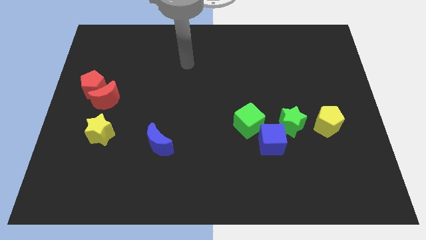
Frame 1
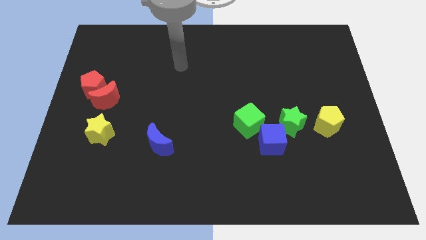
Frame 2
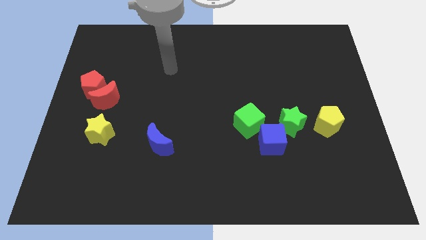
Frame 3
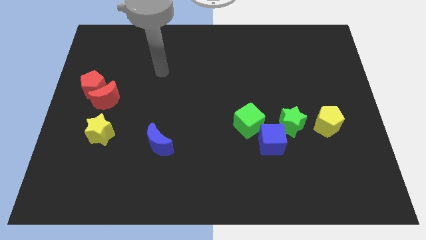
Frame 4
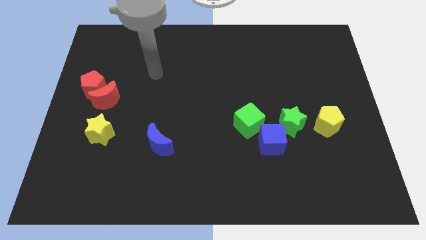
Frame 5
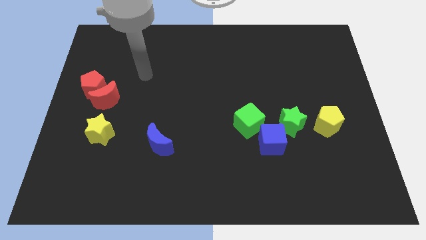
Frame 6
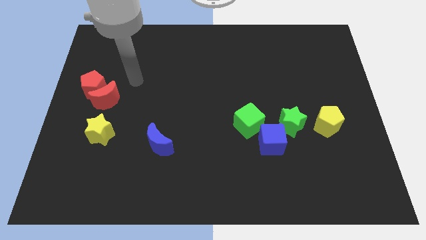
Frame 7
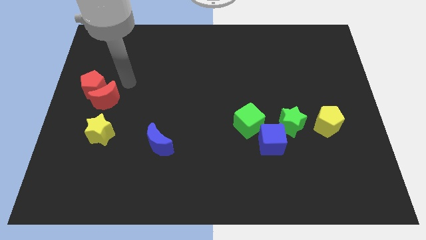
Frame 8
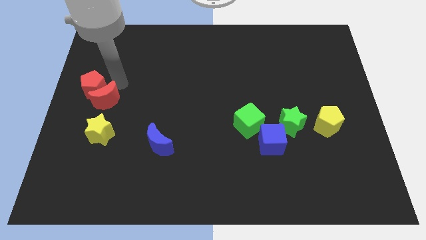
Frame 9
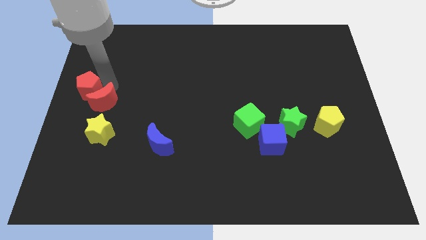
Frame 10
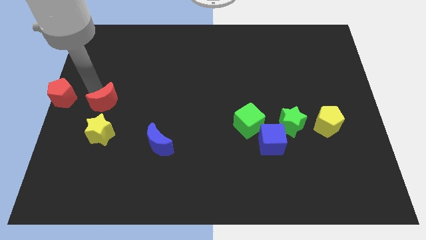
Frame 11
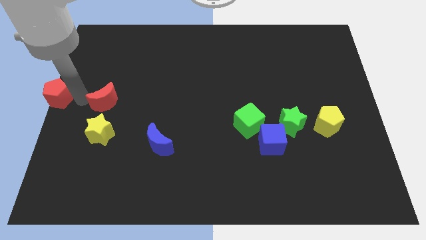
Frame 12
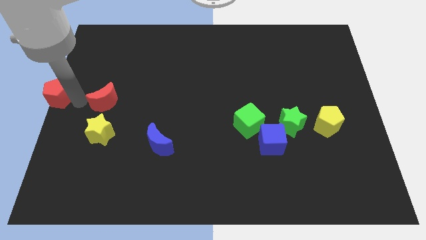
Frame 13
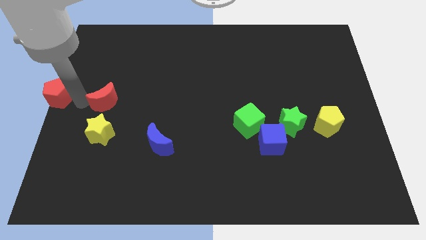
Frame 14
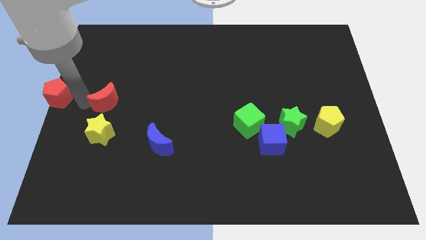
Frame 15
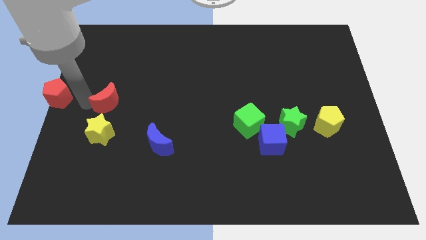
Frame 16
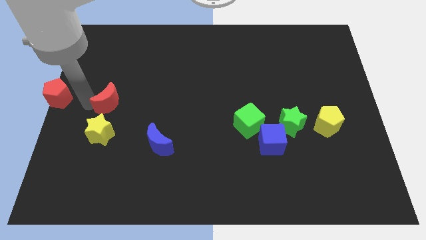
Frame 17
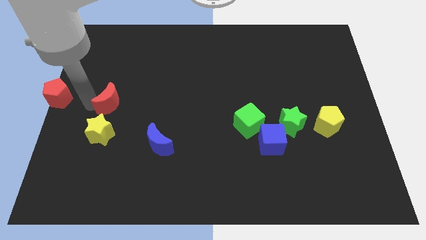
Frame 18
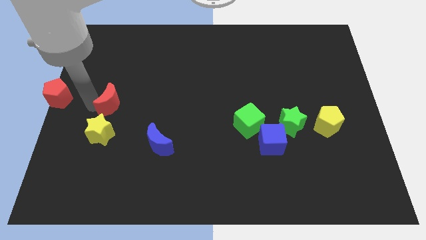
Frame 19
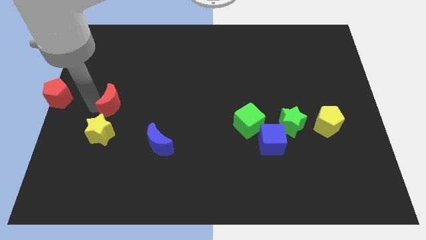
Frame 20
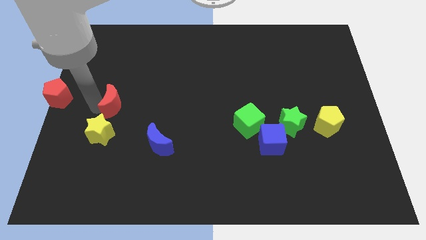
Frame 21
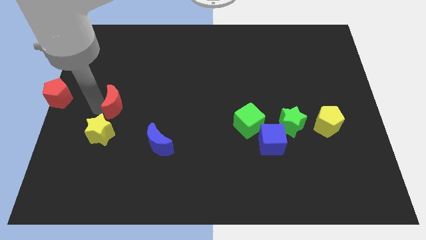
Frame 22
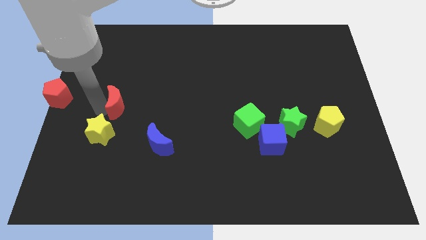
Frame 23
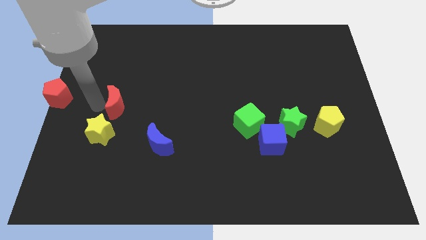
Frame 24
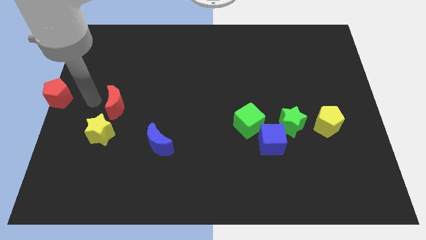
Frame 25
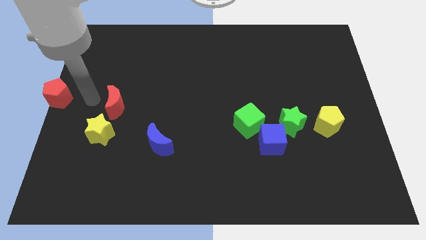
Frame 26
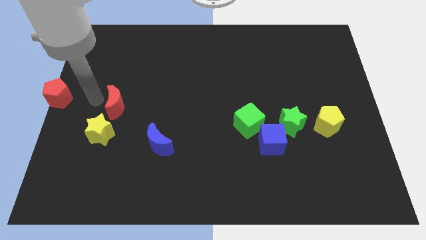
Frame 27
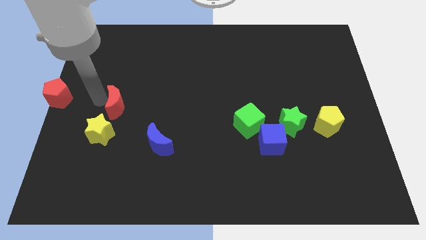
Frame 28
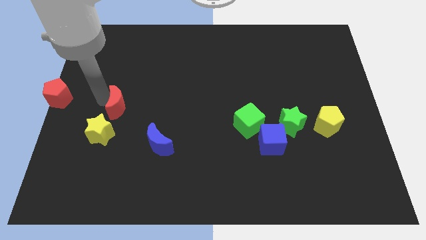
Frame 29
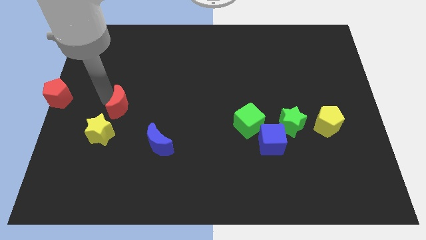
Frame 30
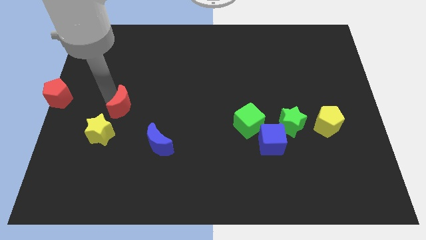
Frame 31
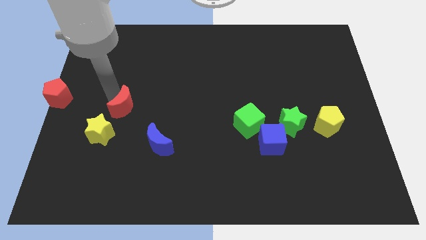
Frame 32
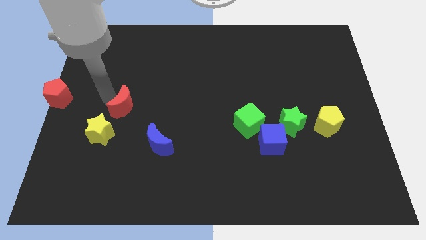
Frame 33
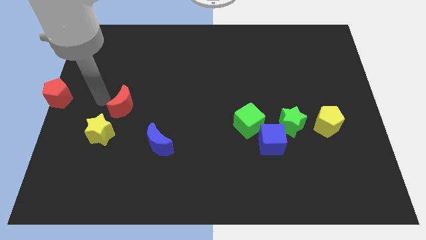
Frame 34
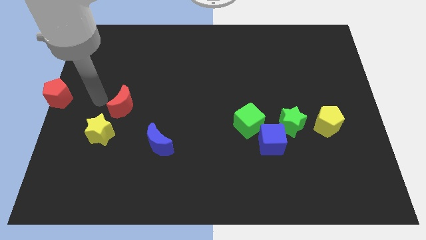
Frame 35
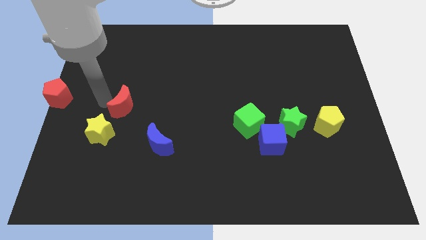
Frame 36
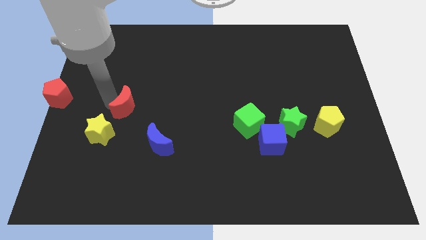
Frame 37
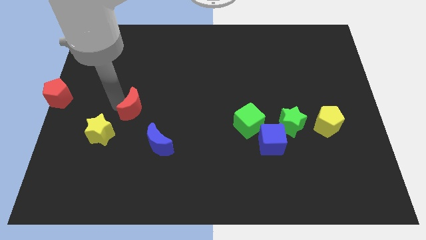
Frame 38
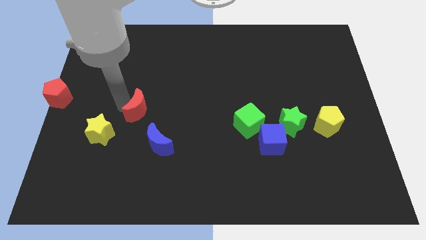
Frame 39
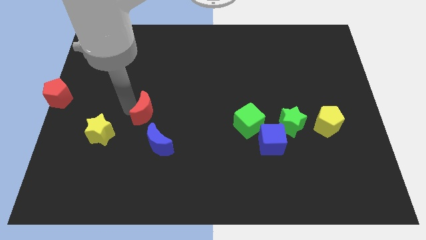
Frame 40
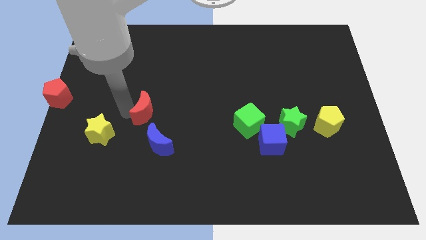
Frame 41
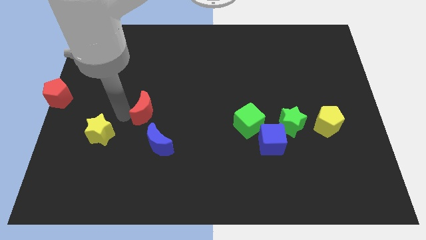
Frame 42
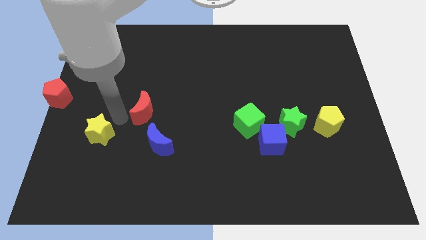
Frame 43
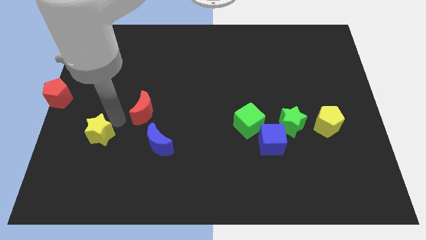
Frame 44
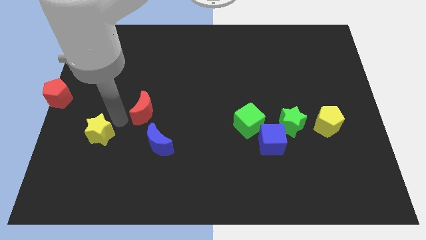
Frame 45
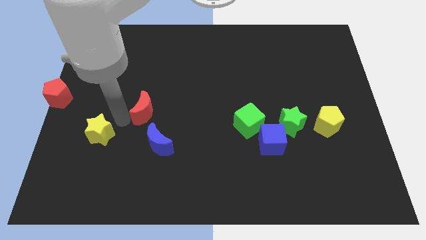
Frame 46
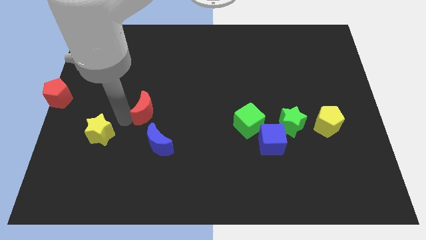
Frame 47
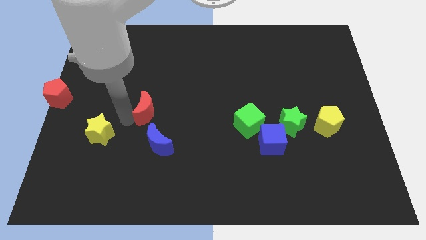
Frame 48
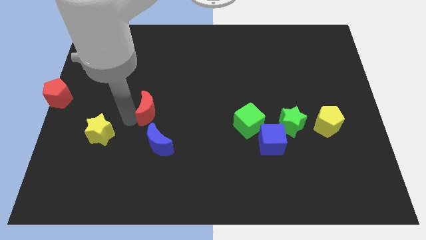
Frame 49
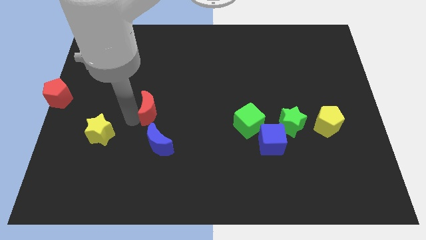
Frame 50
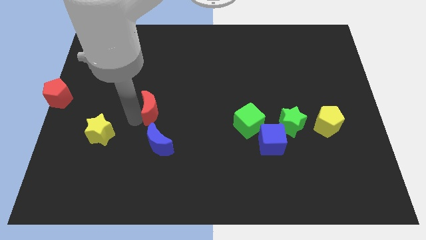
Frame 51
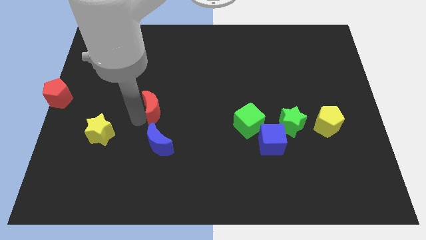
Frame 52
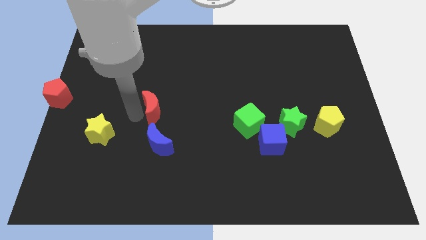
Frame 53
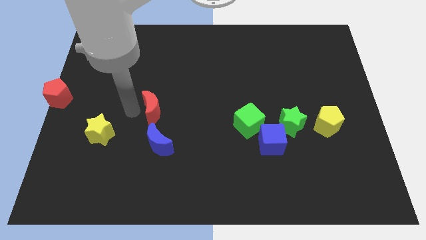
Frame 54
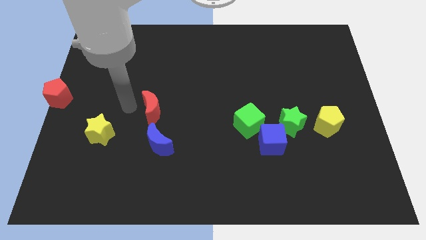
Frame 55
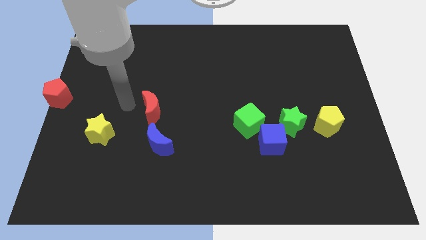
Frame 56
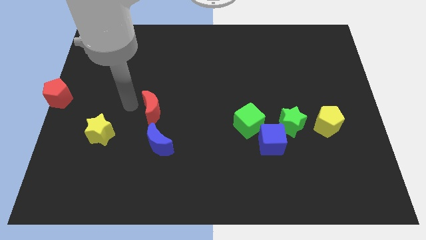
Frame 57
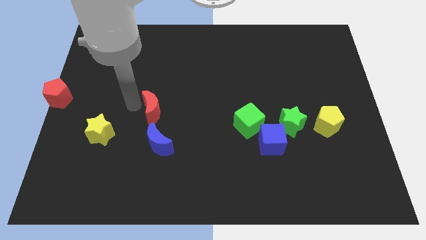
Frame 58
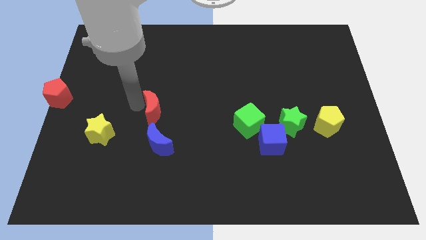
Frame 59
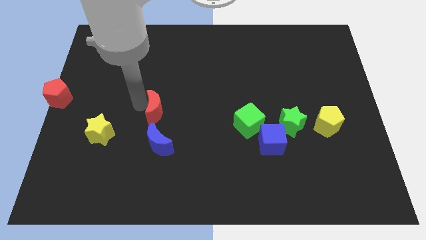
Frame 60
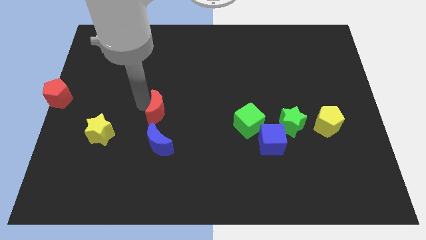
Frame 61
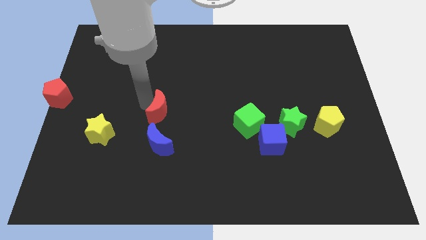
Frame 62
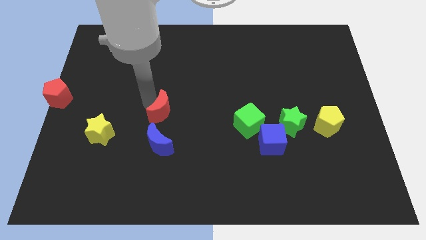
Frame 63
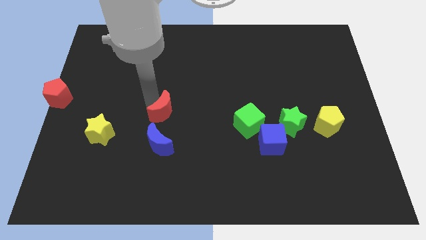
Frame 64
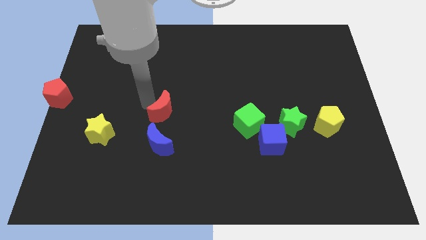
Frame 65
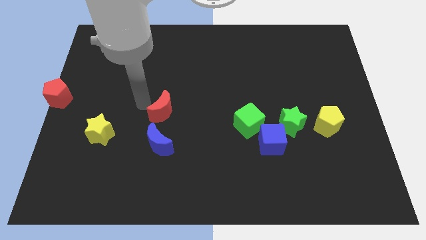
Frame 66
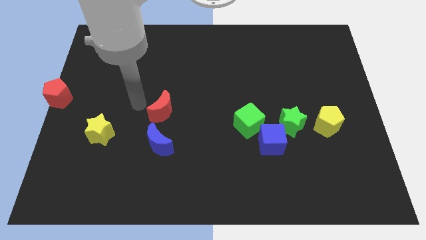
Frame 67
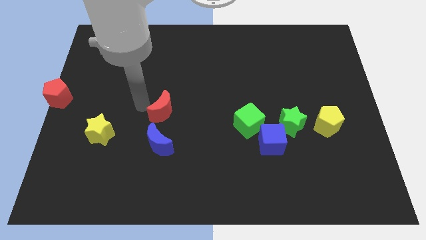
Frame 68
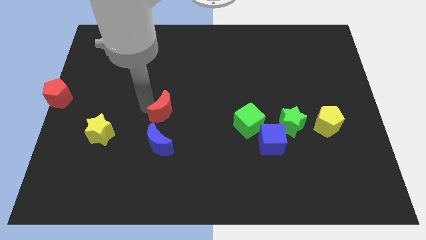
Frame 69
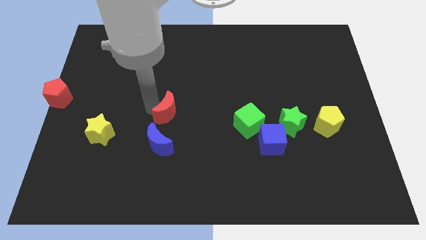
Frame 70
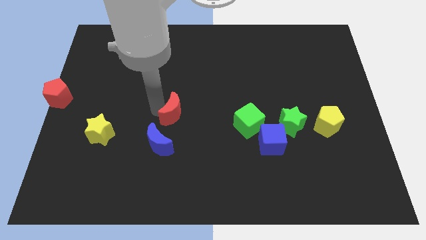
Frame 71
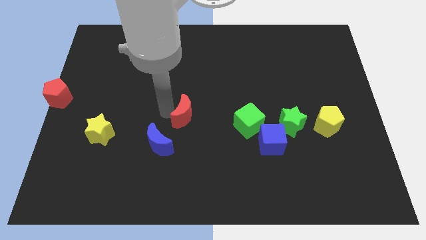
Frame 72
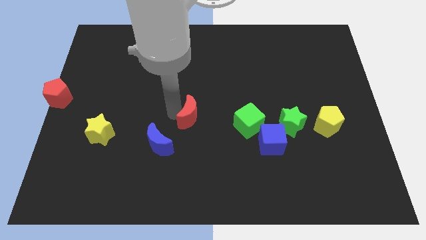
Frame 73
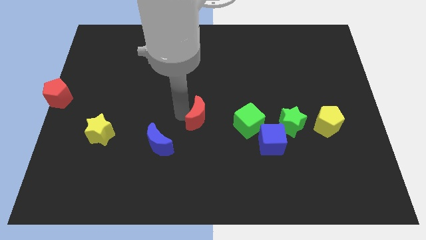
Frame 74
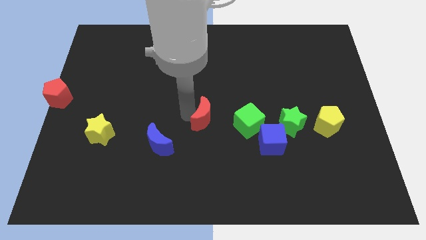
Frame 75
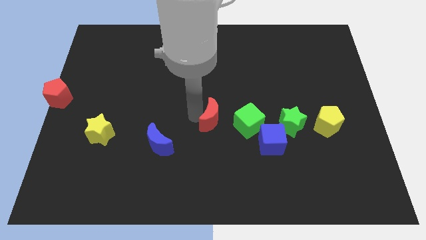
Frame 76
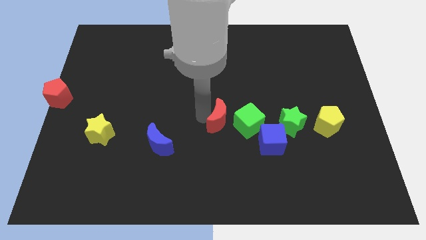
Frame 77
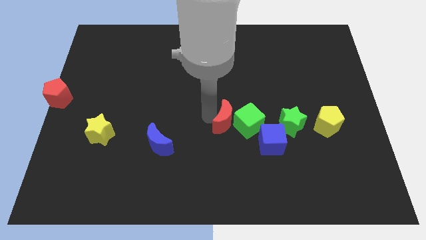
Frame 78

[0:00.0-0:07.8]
push the red moon close to the green cube
